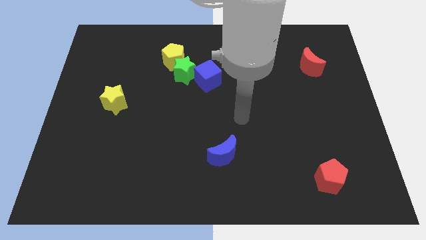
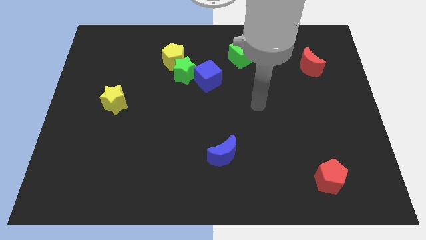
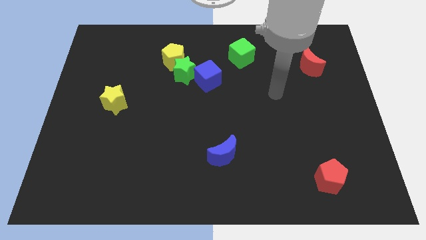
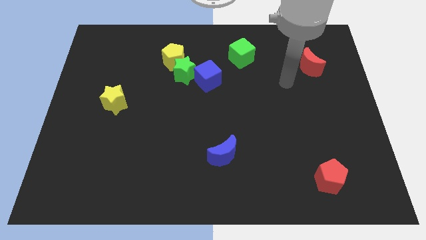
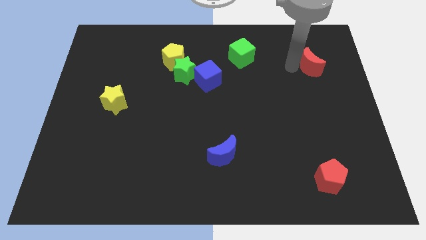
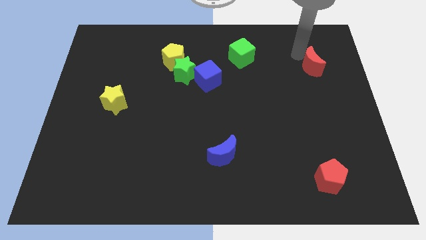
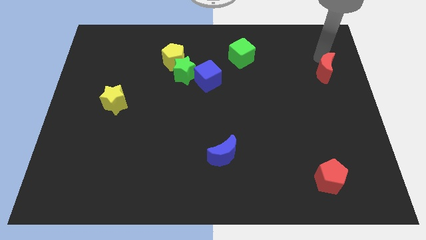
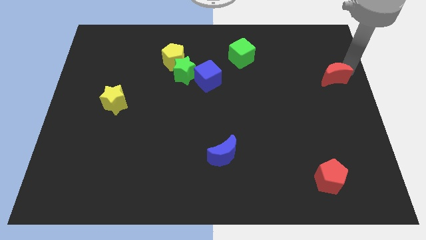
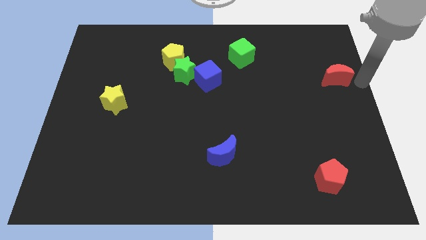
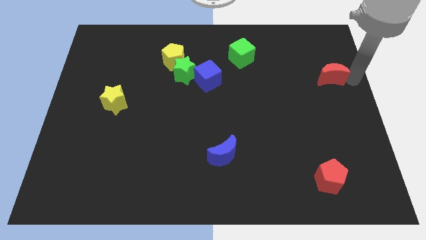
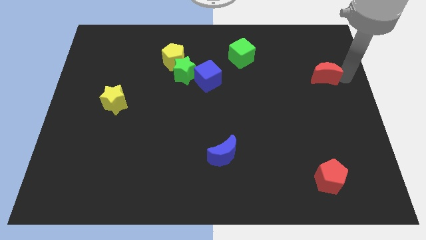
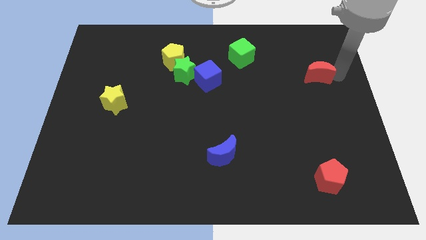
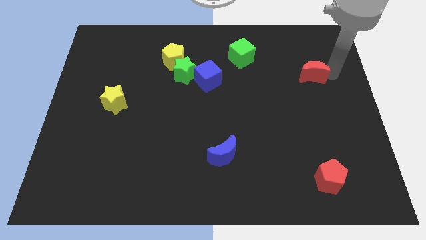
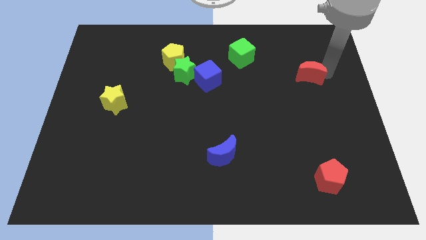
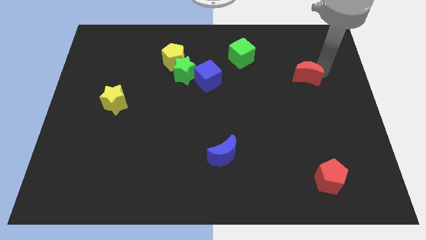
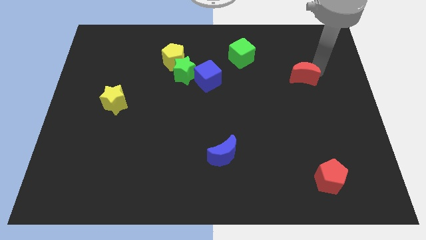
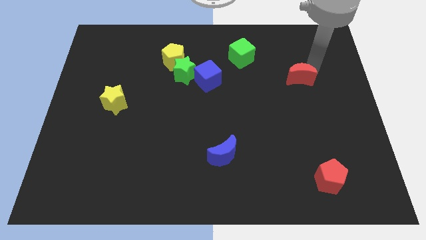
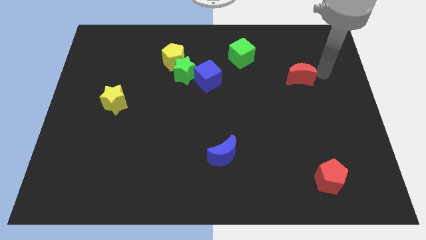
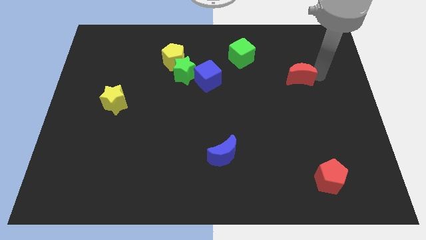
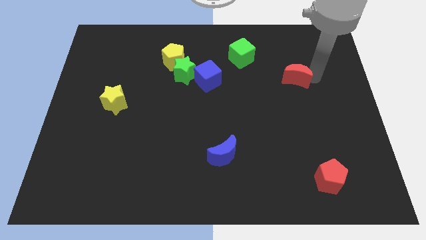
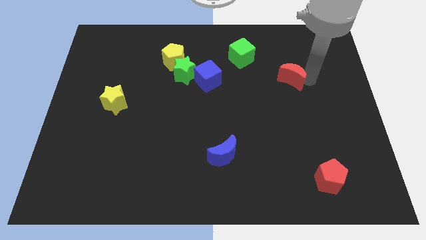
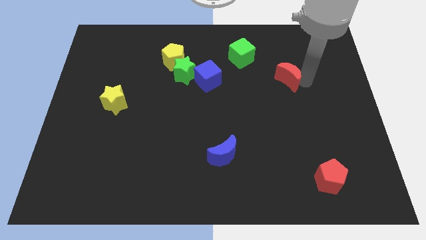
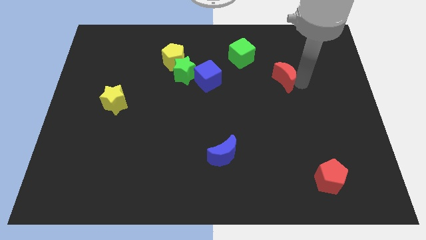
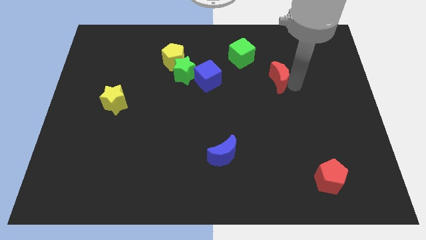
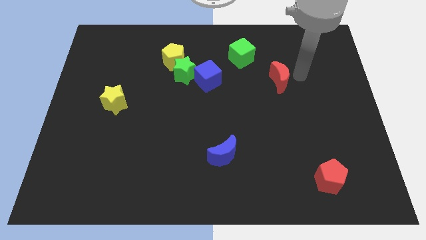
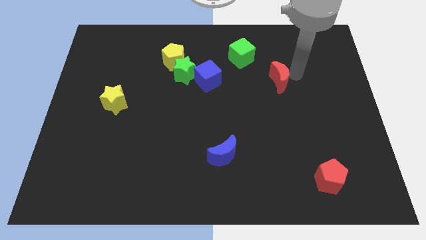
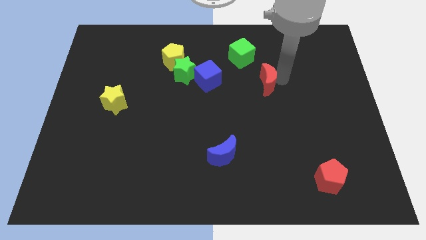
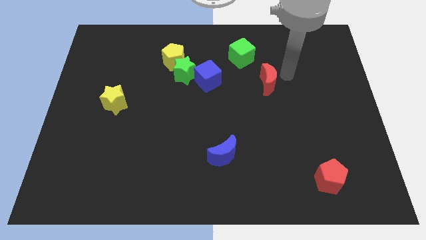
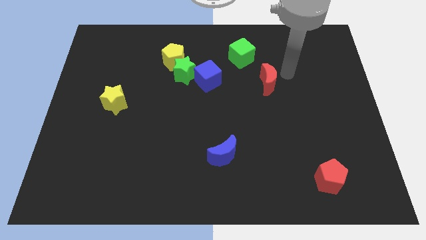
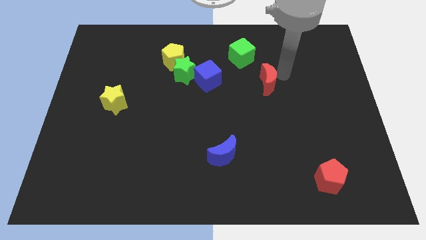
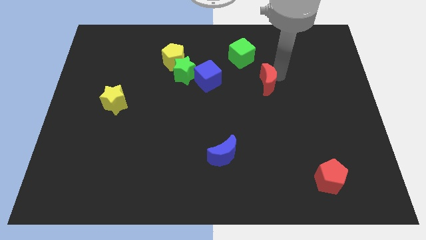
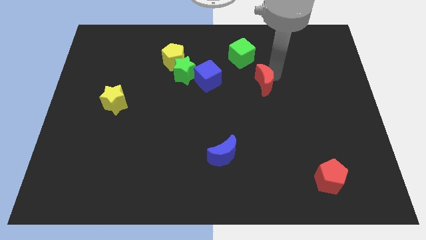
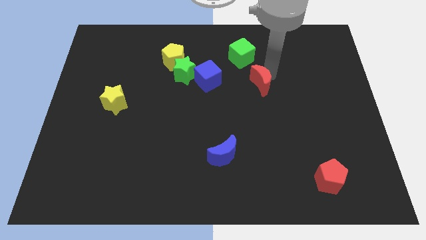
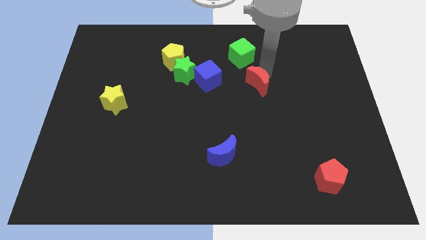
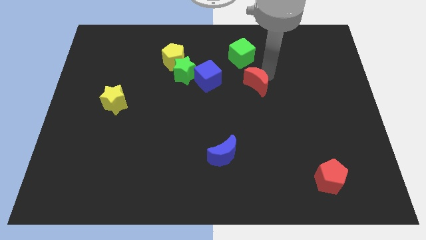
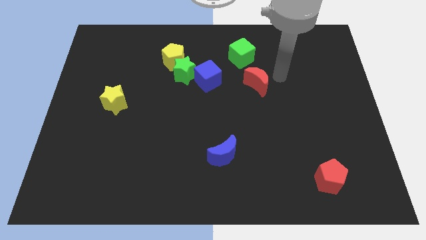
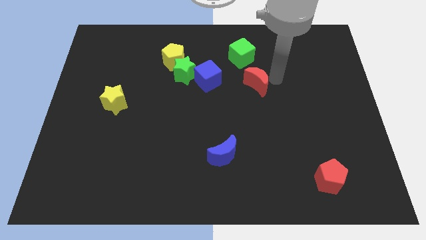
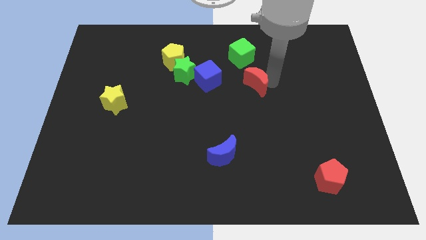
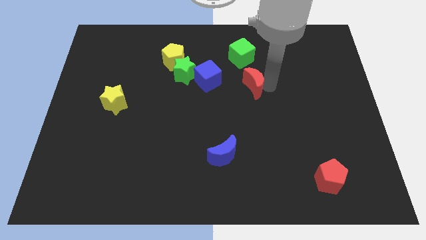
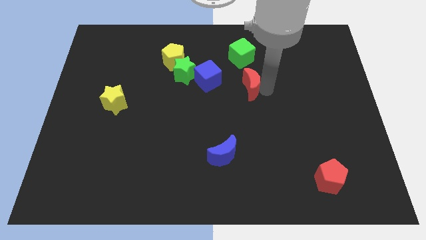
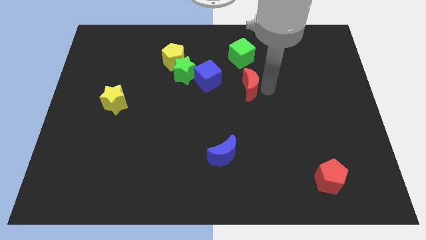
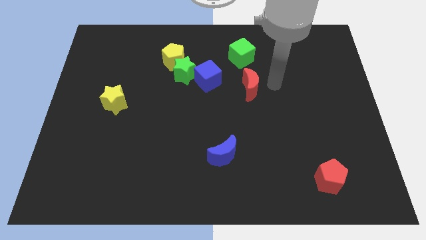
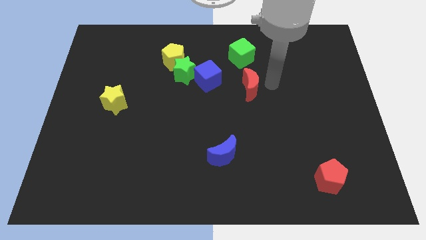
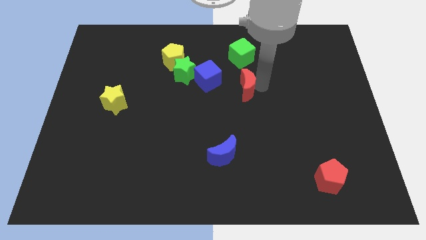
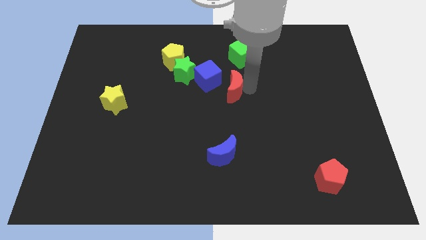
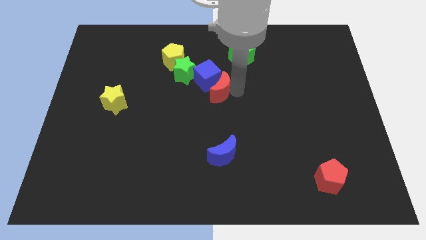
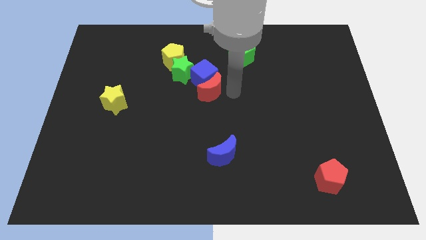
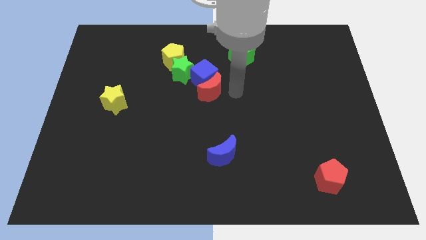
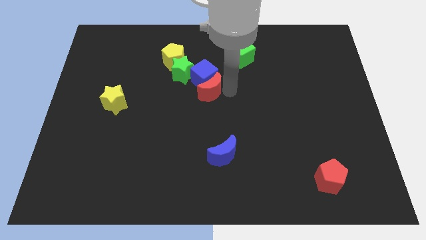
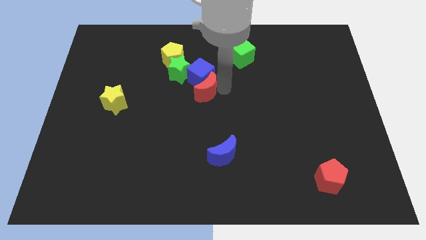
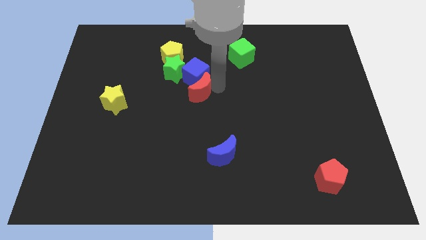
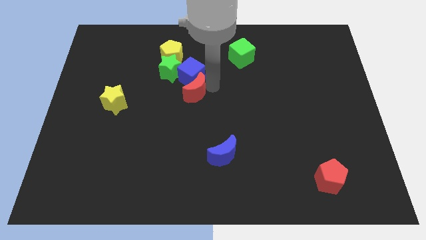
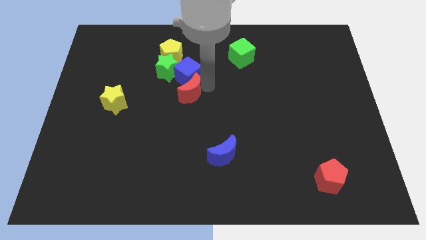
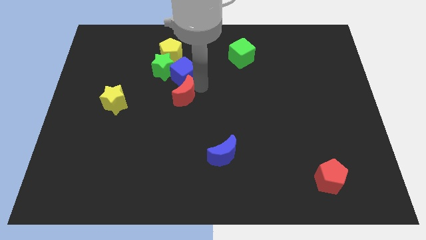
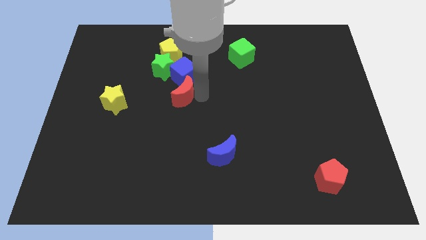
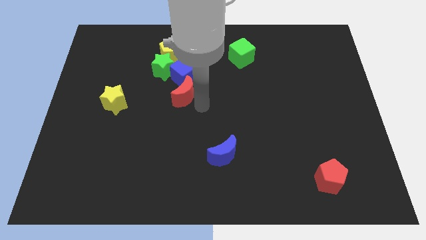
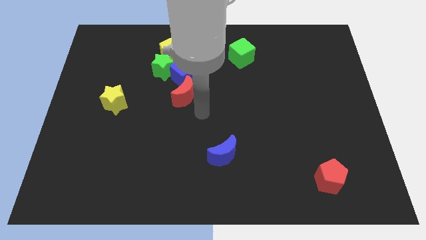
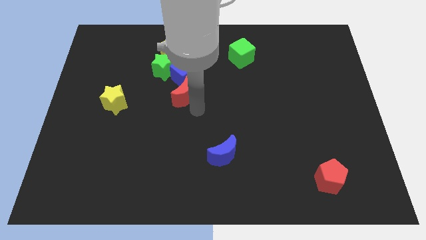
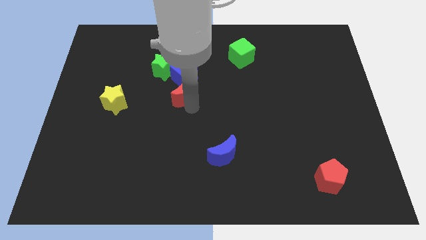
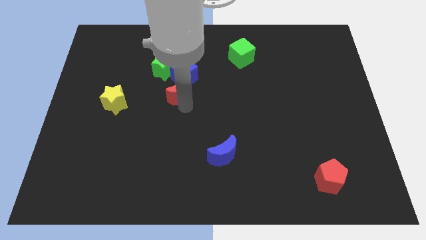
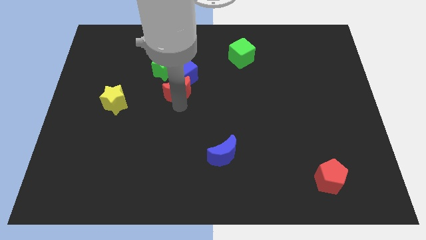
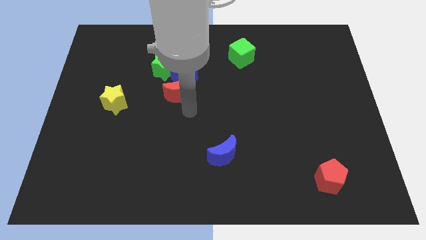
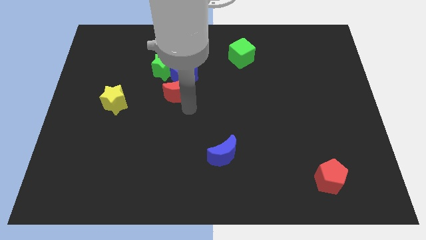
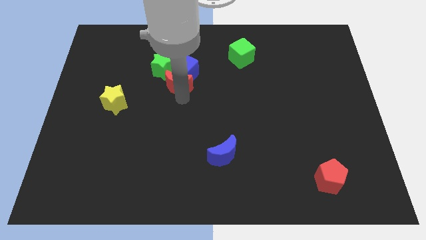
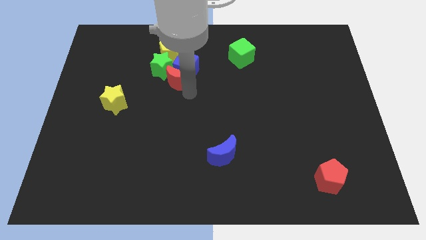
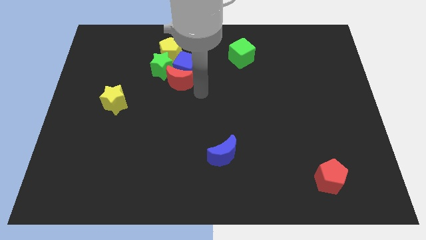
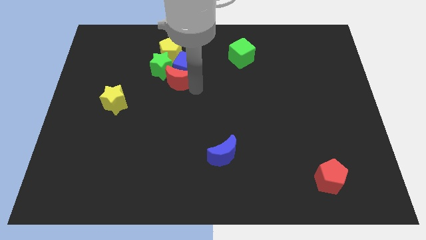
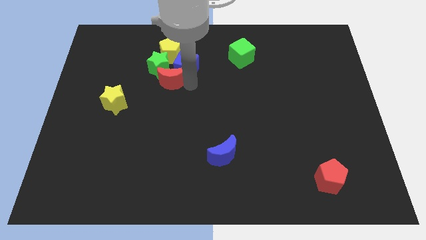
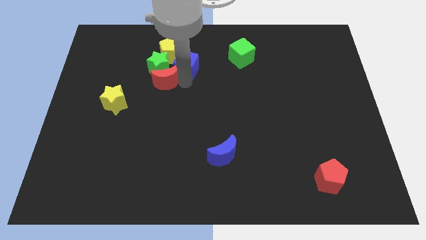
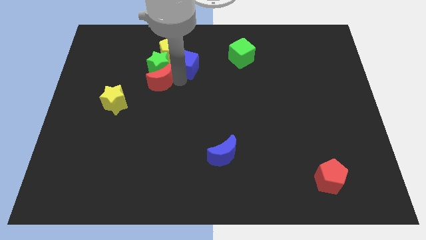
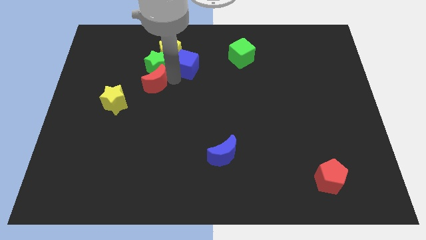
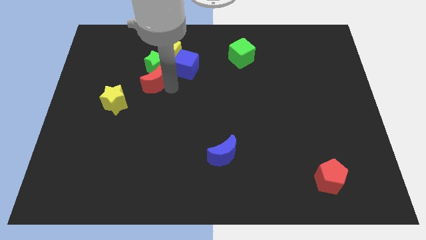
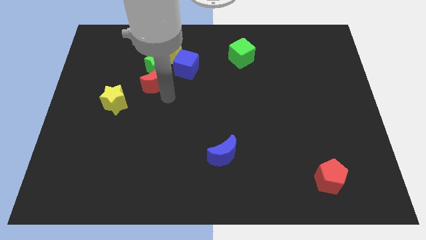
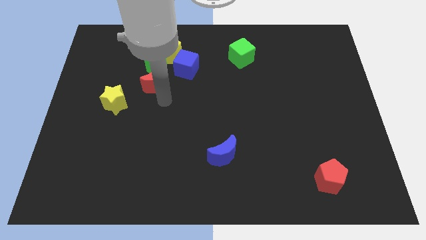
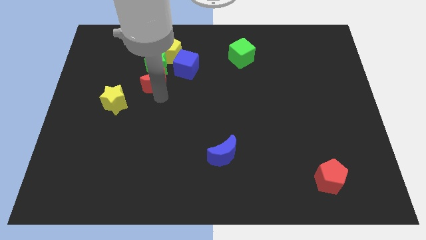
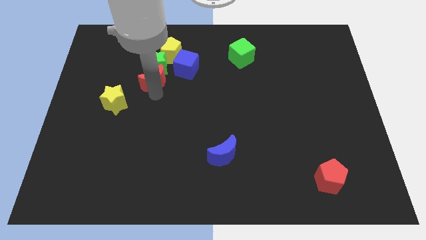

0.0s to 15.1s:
push the red moon diagonally down and to the left of the yellow pentagon
